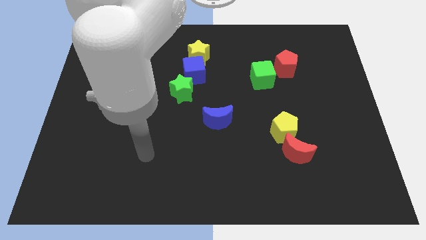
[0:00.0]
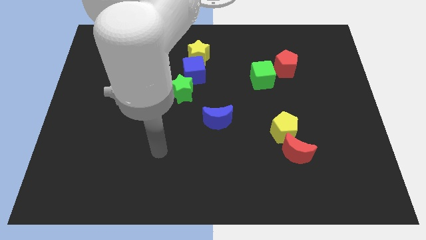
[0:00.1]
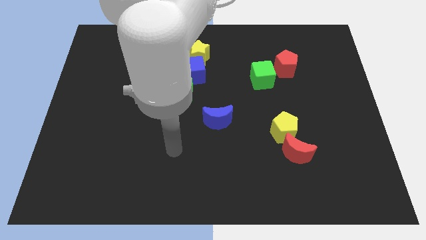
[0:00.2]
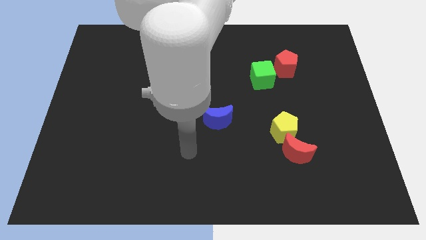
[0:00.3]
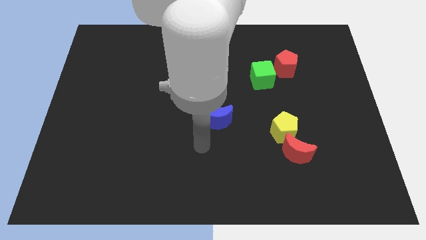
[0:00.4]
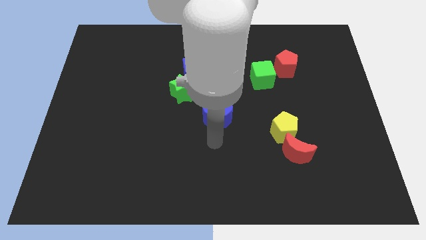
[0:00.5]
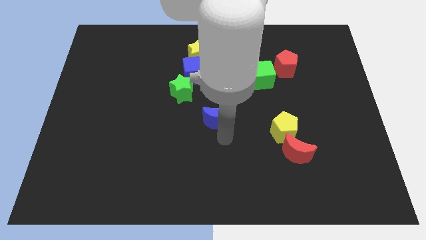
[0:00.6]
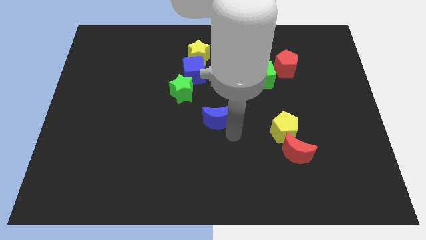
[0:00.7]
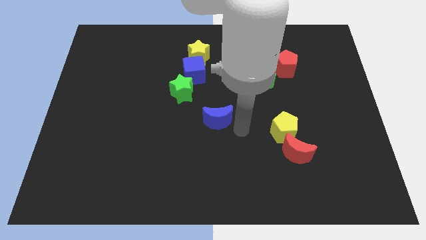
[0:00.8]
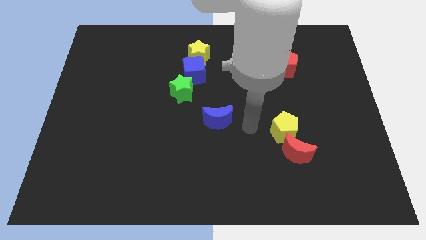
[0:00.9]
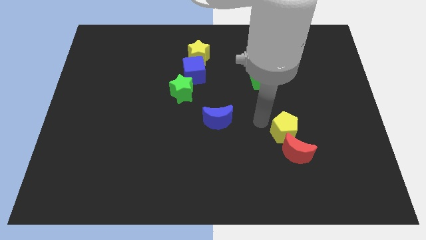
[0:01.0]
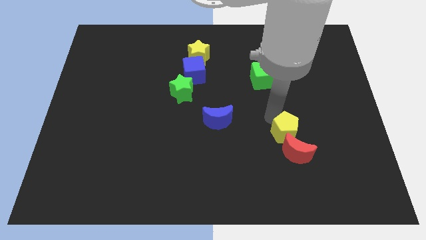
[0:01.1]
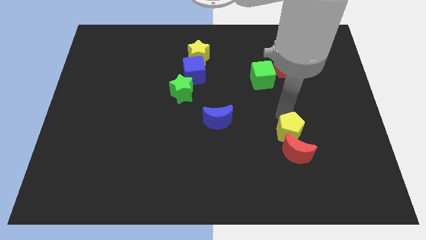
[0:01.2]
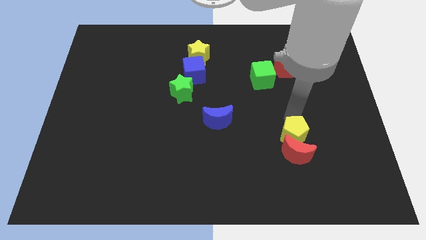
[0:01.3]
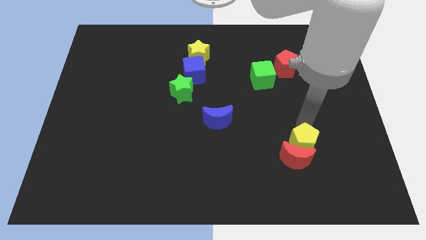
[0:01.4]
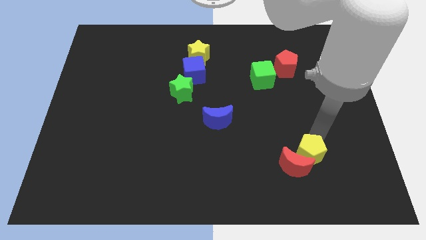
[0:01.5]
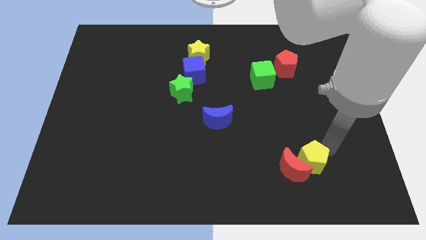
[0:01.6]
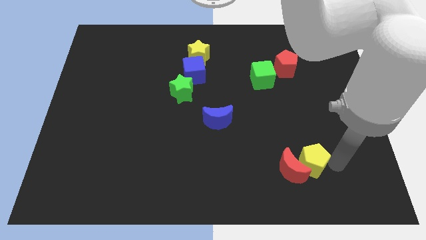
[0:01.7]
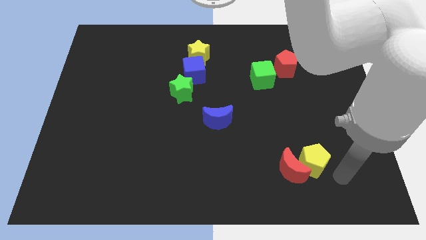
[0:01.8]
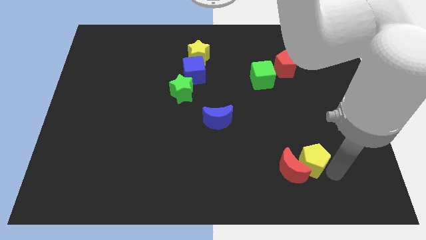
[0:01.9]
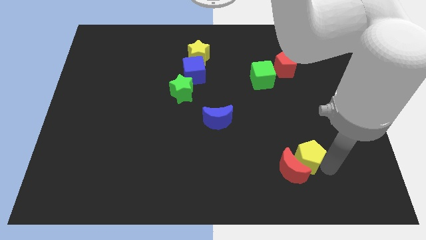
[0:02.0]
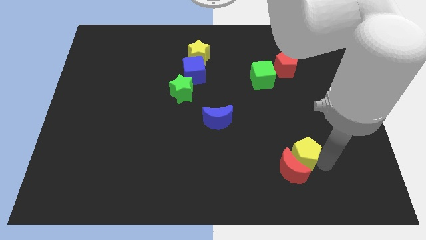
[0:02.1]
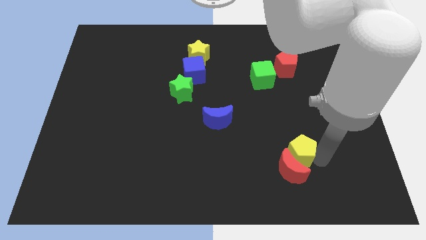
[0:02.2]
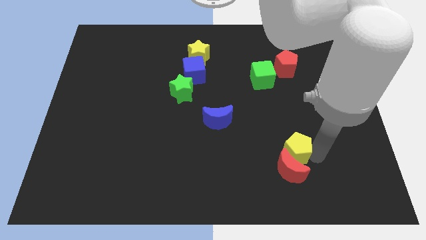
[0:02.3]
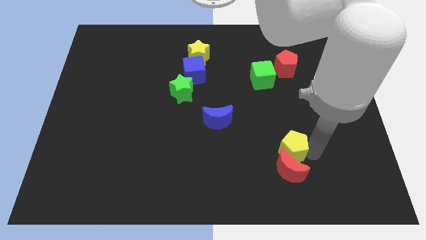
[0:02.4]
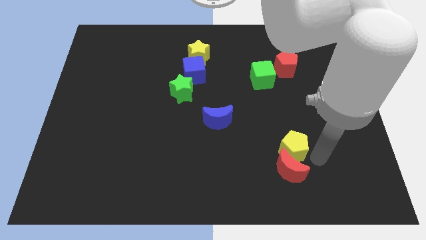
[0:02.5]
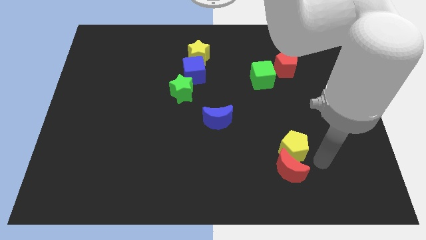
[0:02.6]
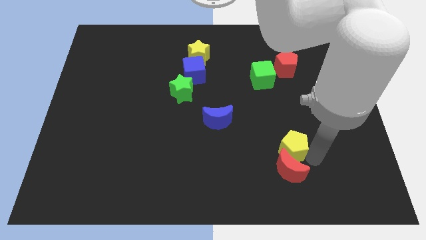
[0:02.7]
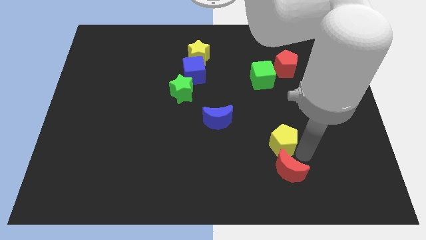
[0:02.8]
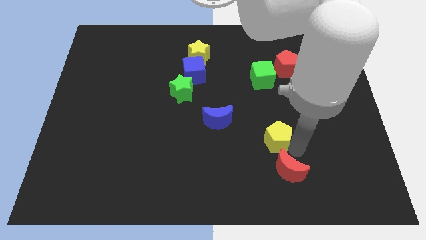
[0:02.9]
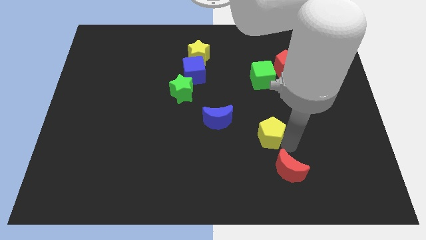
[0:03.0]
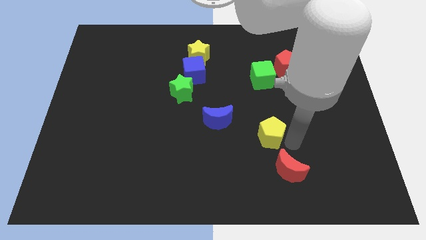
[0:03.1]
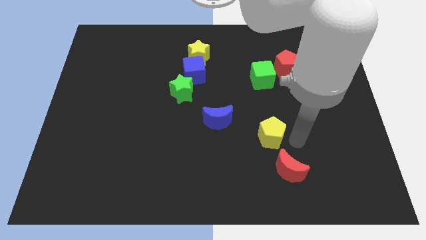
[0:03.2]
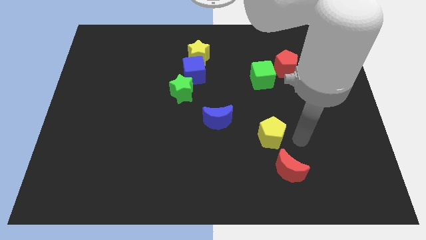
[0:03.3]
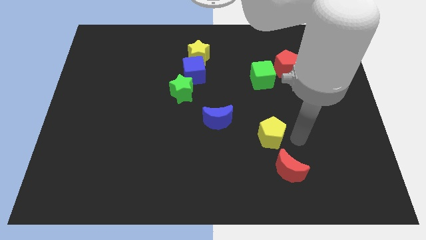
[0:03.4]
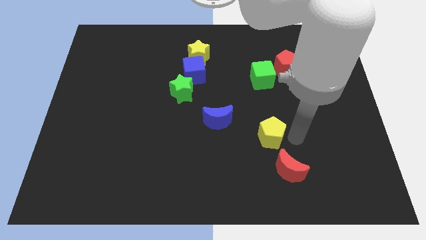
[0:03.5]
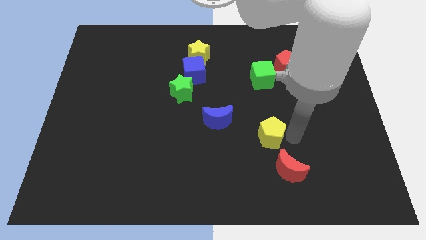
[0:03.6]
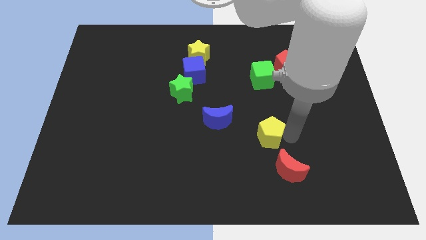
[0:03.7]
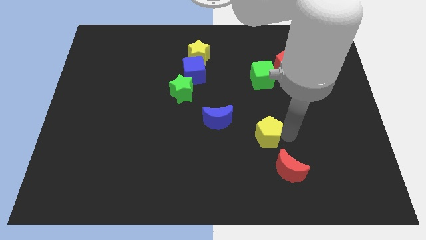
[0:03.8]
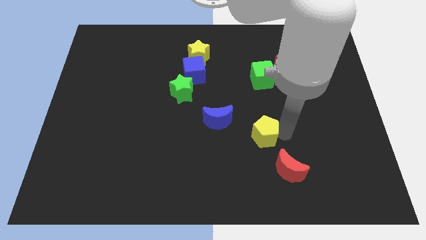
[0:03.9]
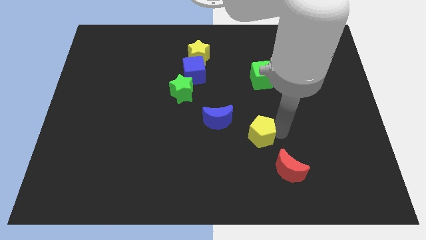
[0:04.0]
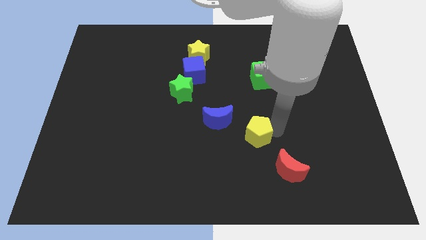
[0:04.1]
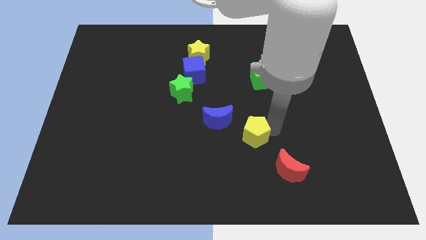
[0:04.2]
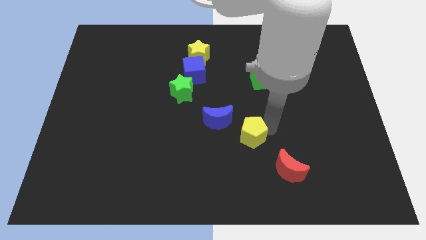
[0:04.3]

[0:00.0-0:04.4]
move the yellow pentagon a bit to the left

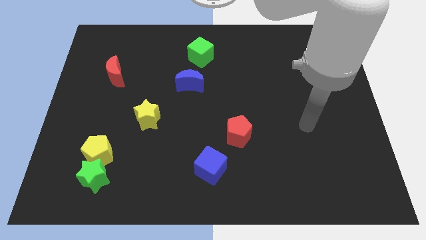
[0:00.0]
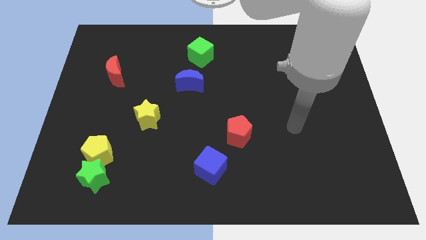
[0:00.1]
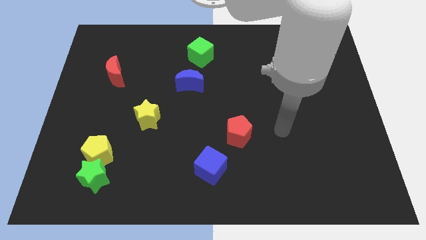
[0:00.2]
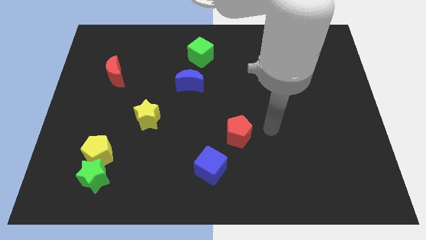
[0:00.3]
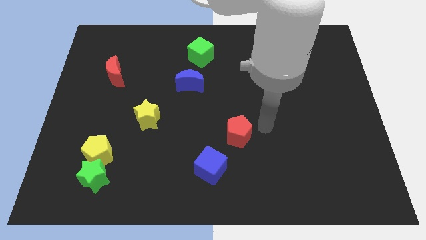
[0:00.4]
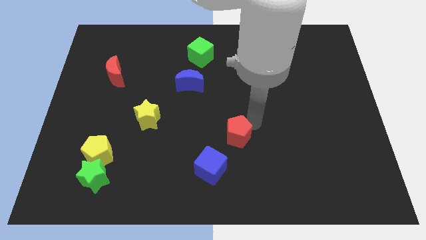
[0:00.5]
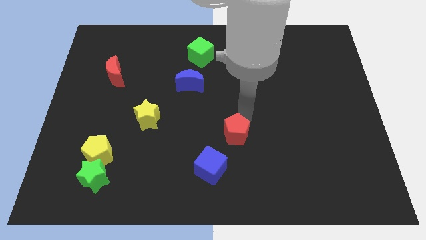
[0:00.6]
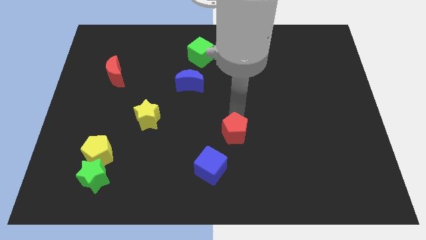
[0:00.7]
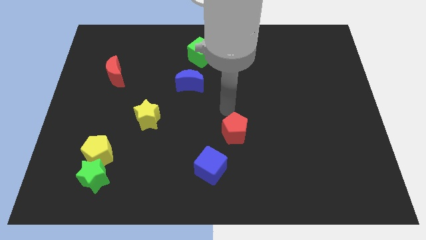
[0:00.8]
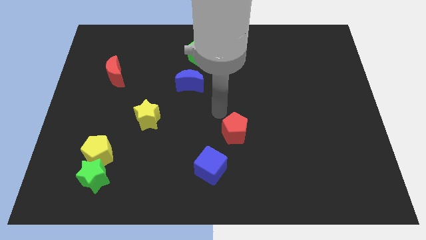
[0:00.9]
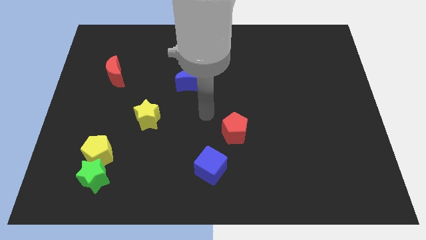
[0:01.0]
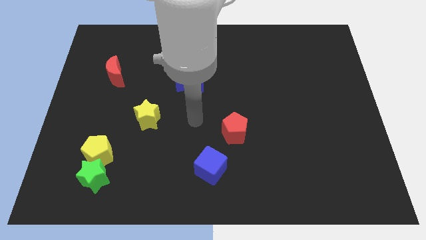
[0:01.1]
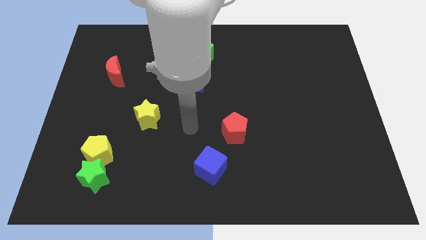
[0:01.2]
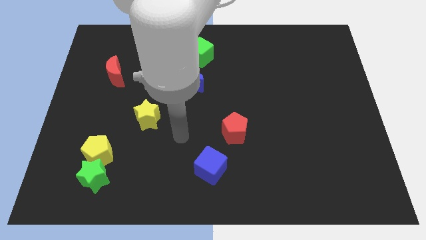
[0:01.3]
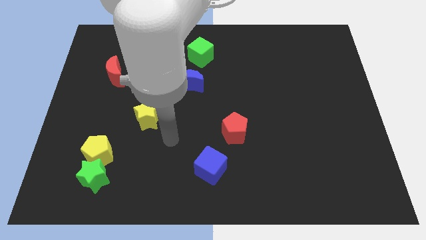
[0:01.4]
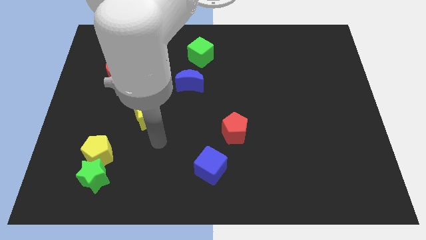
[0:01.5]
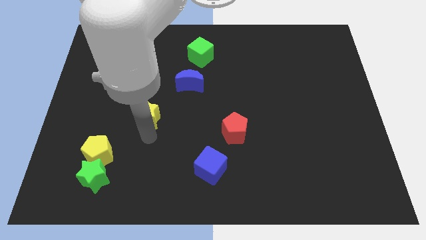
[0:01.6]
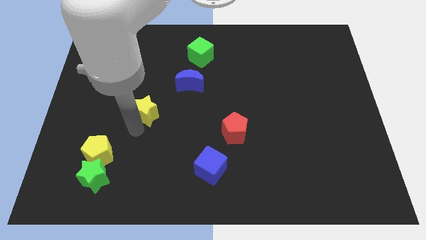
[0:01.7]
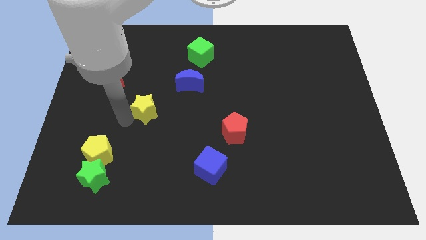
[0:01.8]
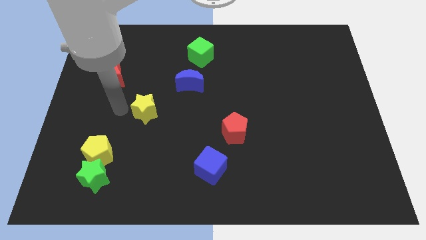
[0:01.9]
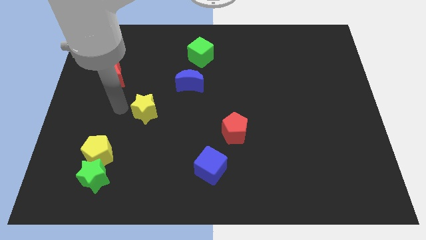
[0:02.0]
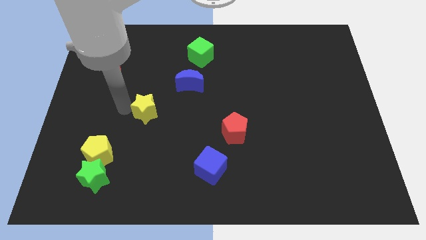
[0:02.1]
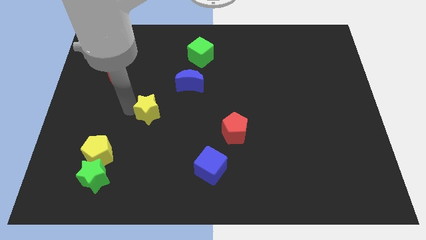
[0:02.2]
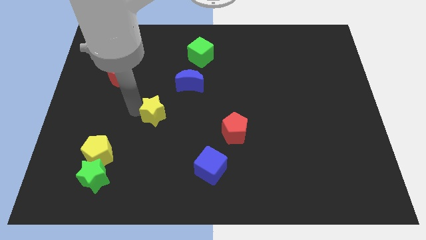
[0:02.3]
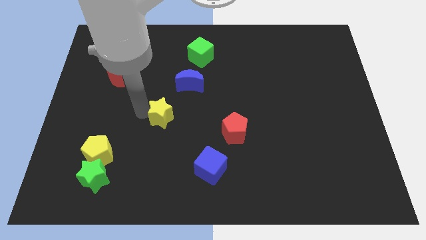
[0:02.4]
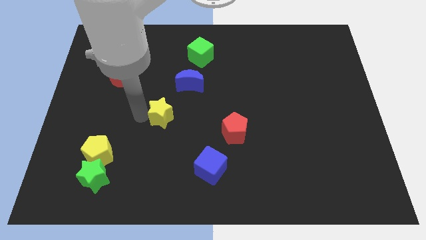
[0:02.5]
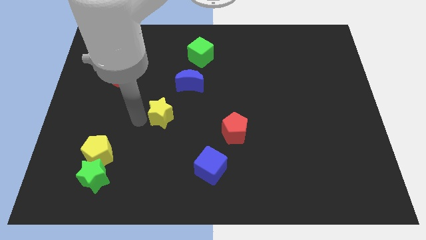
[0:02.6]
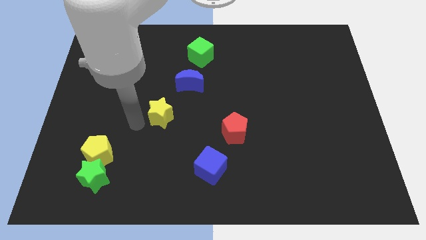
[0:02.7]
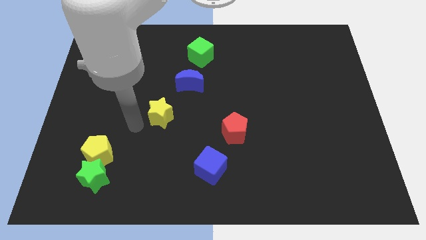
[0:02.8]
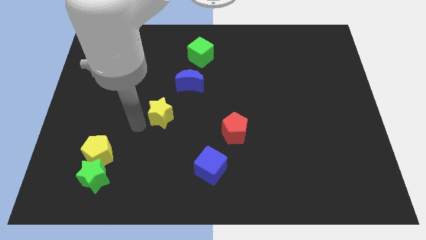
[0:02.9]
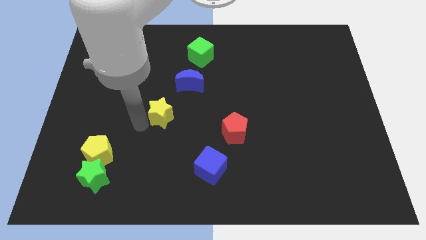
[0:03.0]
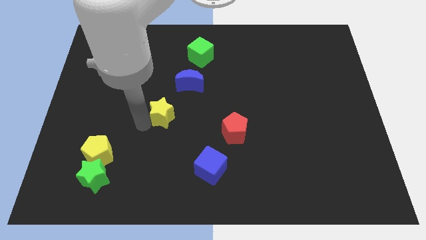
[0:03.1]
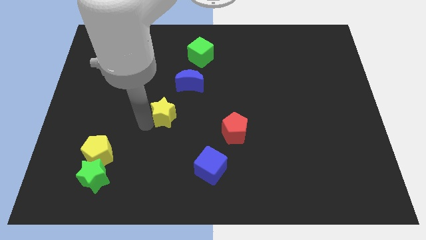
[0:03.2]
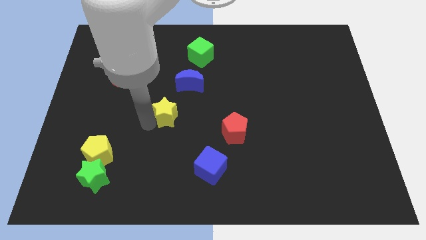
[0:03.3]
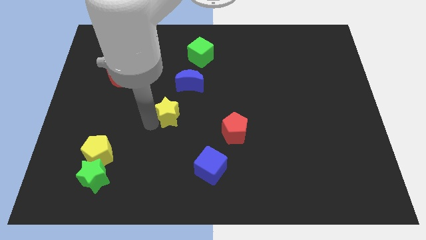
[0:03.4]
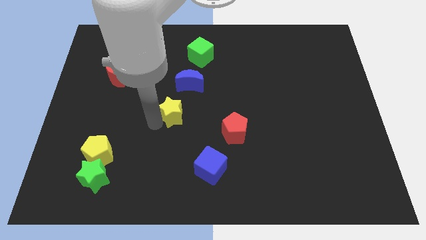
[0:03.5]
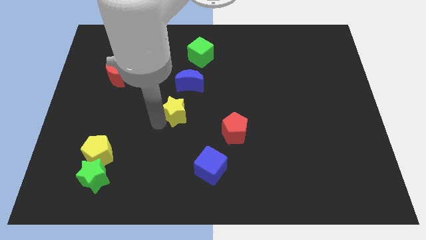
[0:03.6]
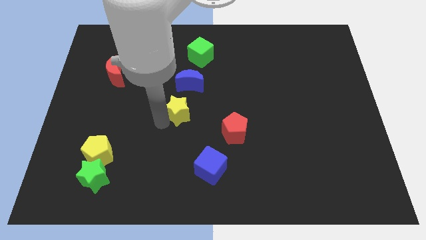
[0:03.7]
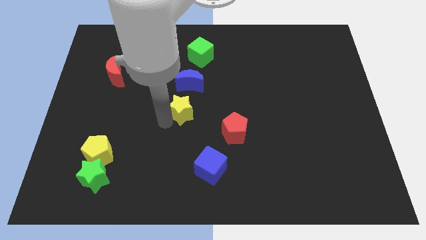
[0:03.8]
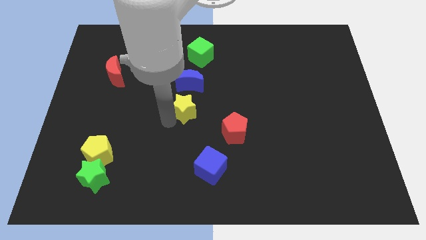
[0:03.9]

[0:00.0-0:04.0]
slightly push the yellow star upwards and to the right
